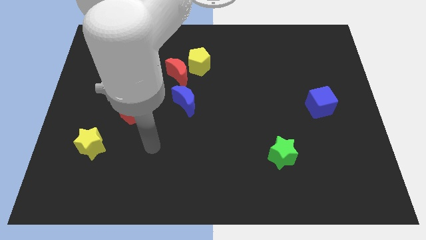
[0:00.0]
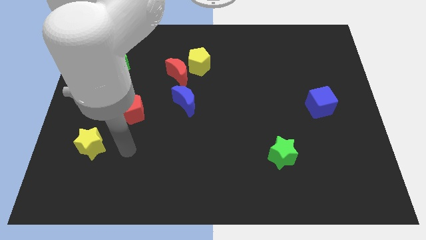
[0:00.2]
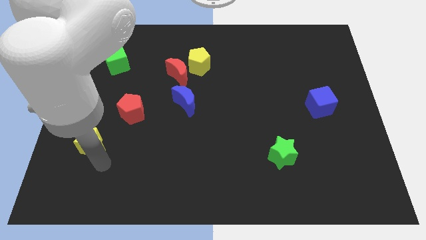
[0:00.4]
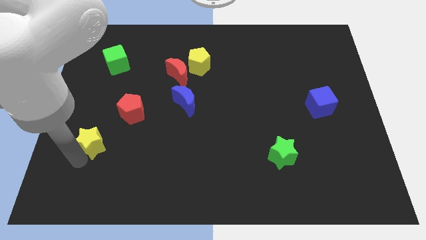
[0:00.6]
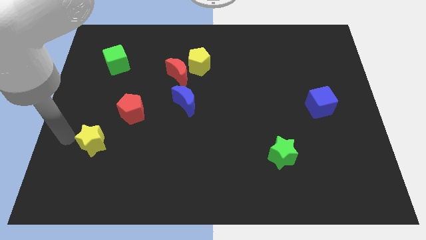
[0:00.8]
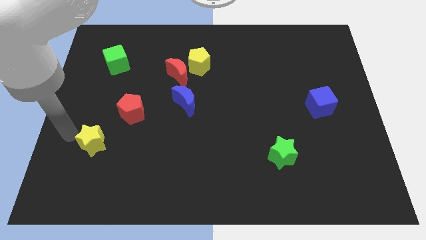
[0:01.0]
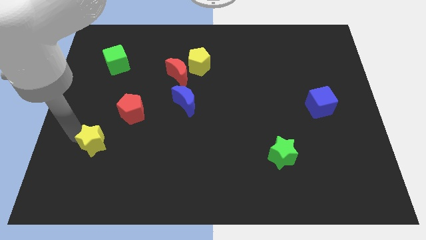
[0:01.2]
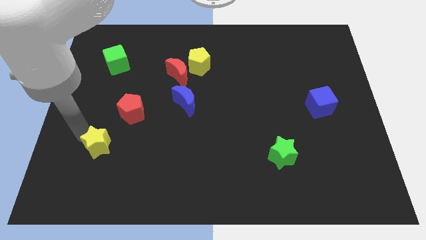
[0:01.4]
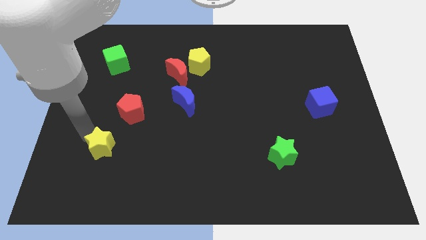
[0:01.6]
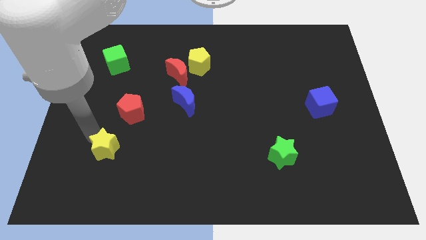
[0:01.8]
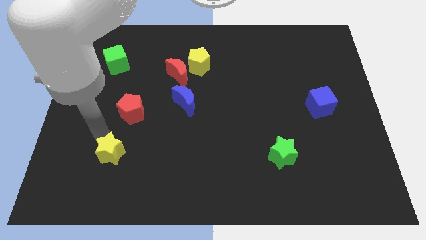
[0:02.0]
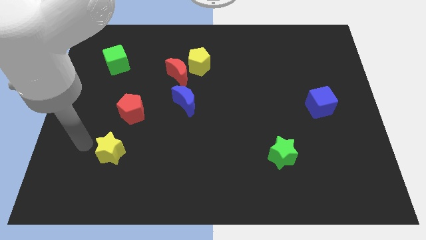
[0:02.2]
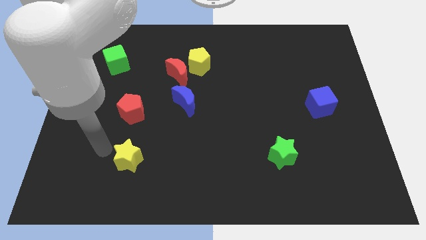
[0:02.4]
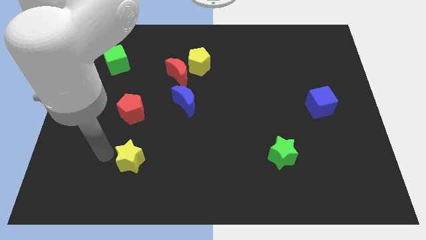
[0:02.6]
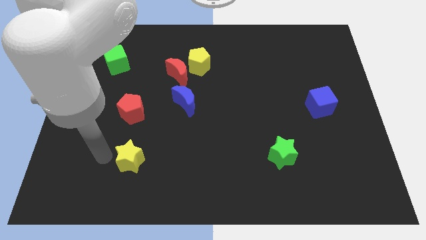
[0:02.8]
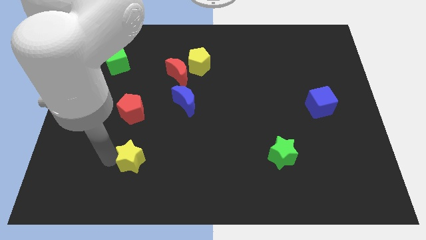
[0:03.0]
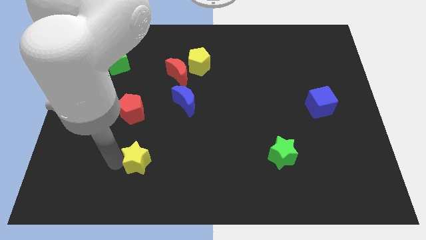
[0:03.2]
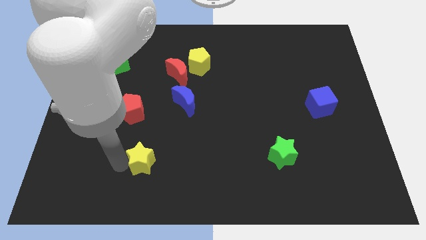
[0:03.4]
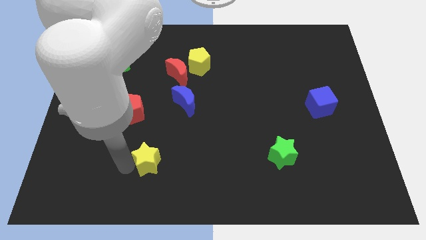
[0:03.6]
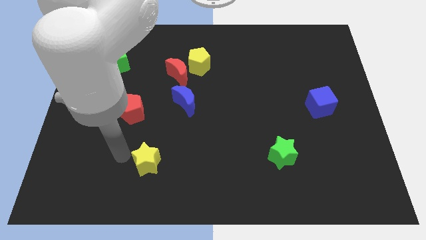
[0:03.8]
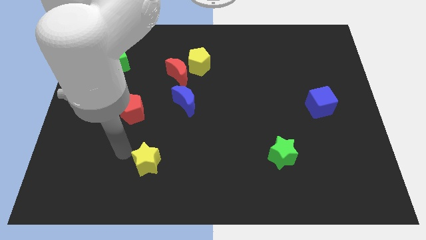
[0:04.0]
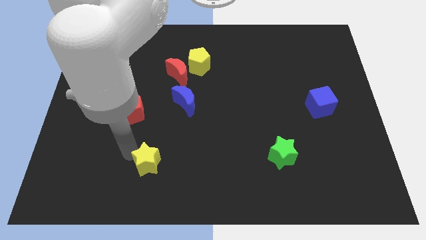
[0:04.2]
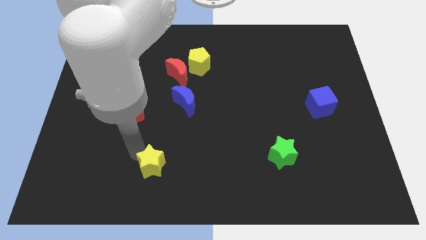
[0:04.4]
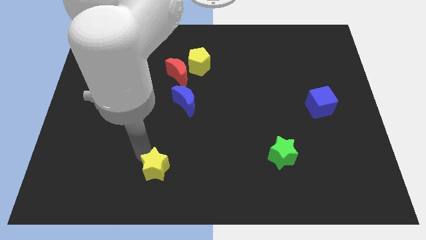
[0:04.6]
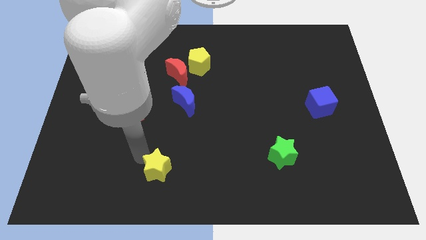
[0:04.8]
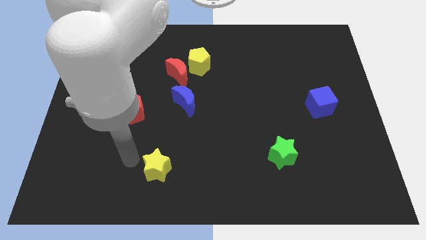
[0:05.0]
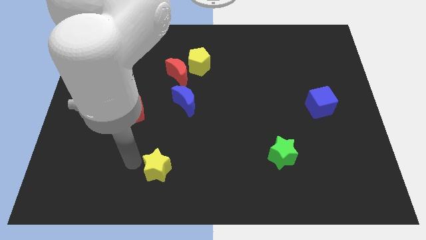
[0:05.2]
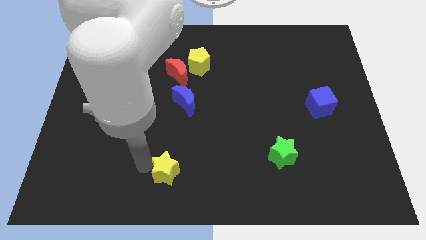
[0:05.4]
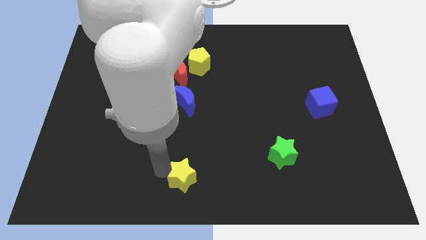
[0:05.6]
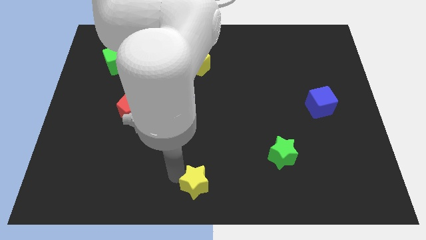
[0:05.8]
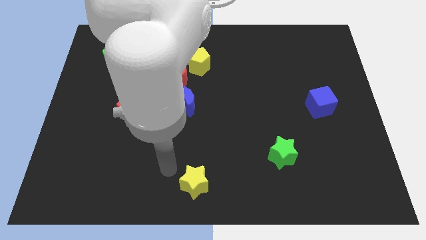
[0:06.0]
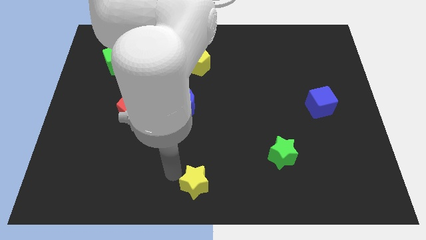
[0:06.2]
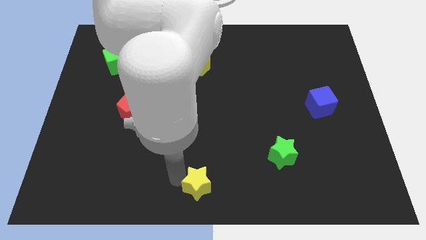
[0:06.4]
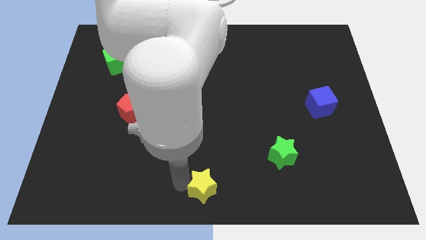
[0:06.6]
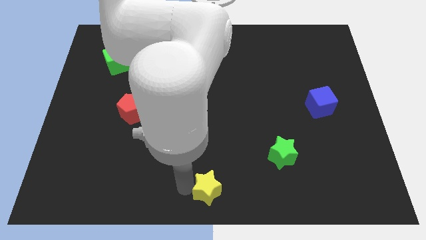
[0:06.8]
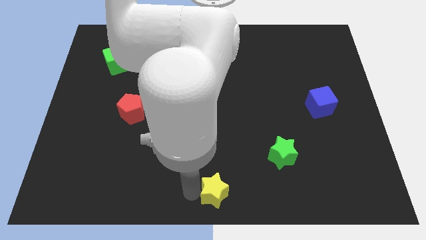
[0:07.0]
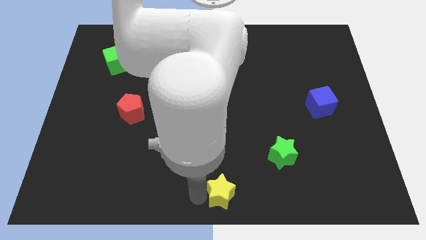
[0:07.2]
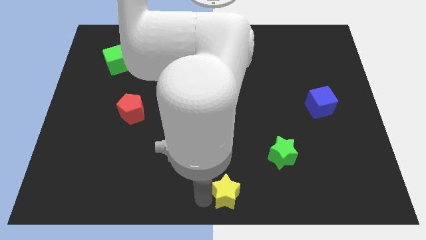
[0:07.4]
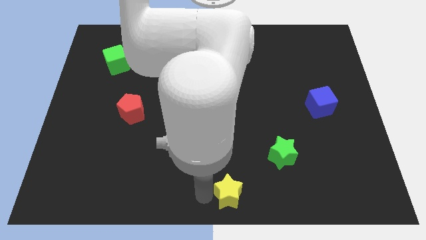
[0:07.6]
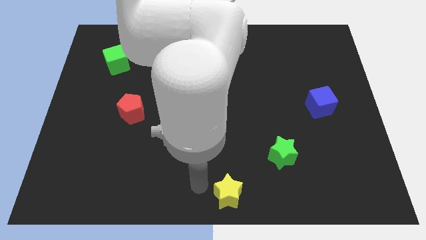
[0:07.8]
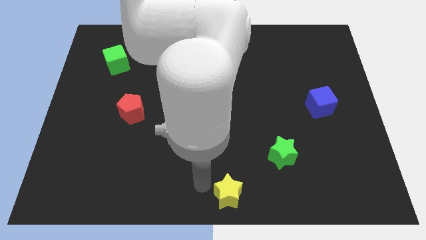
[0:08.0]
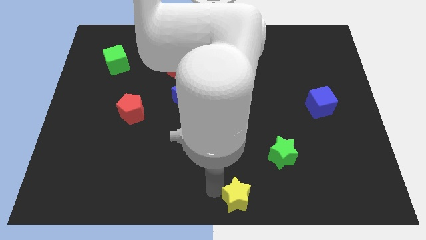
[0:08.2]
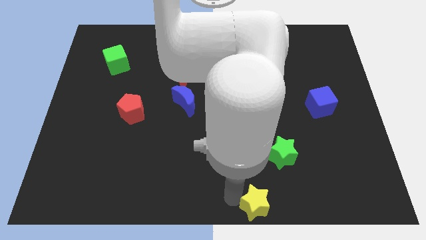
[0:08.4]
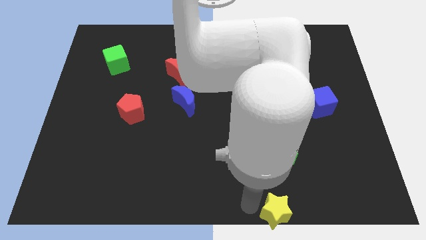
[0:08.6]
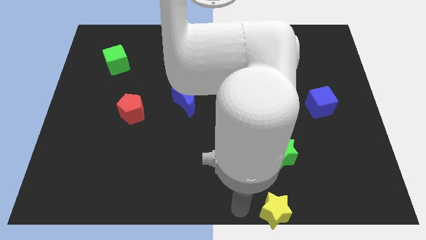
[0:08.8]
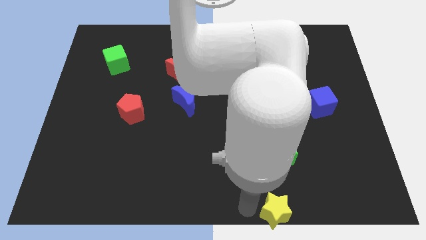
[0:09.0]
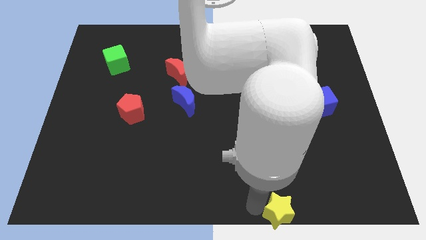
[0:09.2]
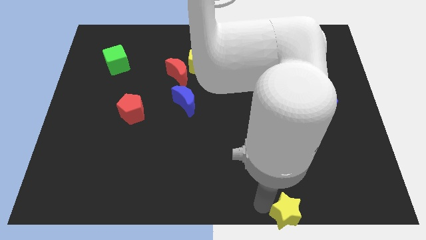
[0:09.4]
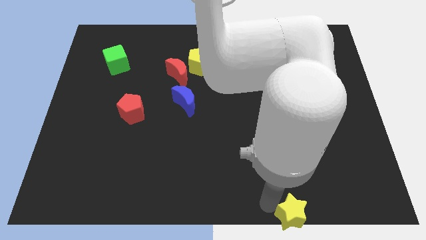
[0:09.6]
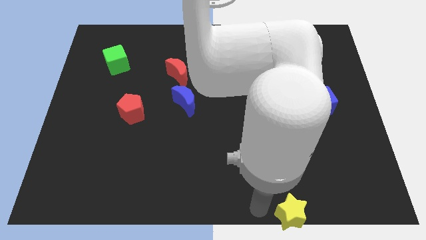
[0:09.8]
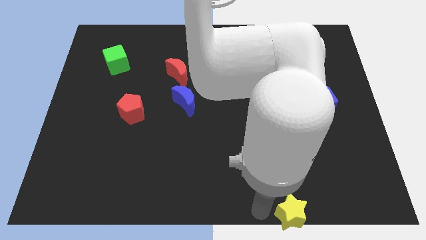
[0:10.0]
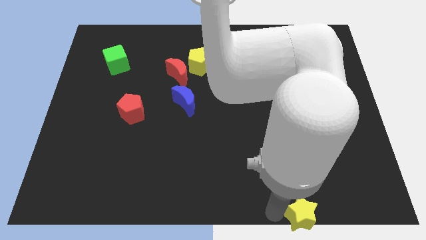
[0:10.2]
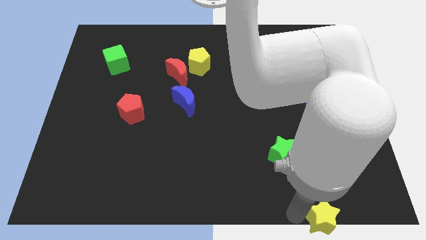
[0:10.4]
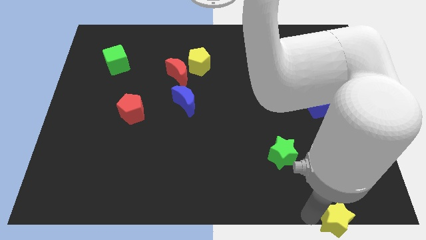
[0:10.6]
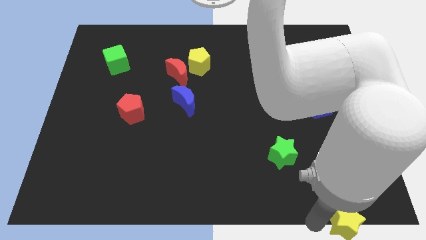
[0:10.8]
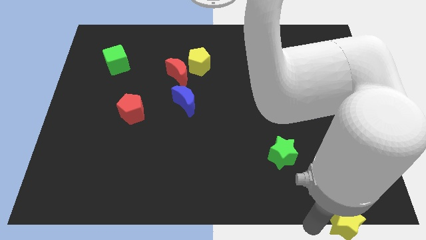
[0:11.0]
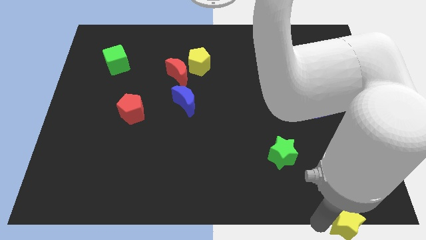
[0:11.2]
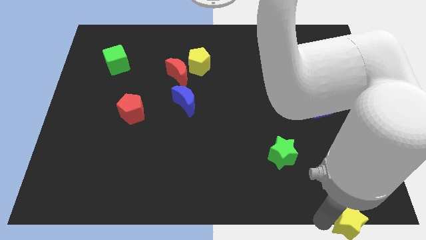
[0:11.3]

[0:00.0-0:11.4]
put the yellow star to the bottom right

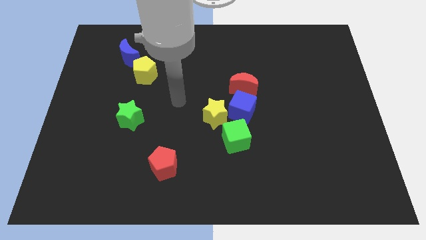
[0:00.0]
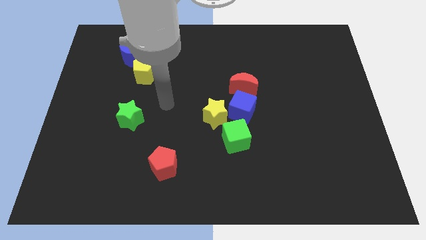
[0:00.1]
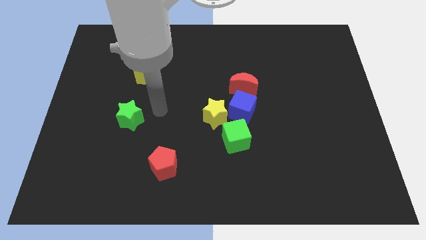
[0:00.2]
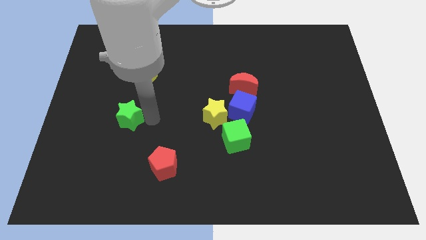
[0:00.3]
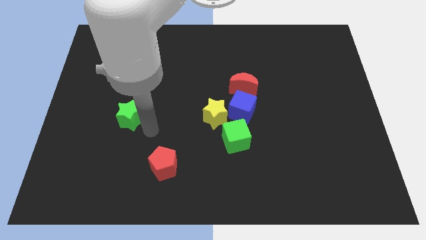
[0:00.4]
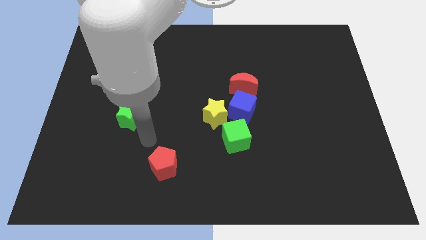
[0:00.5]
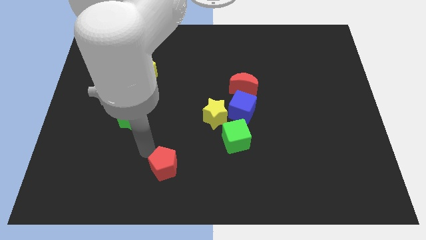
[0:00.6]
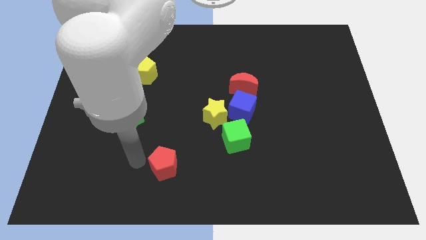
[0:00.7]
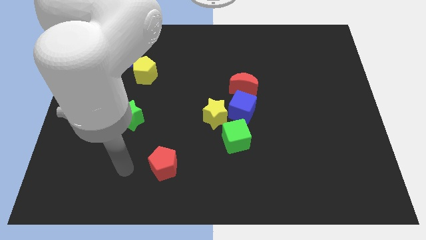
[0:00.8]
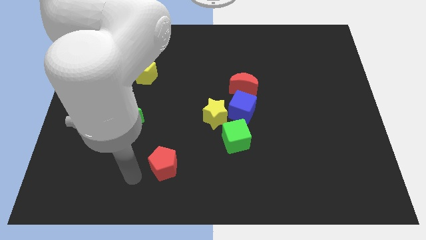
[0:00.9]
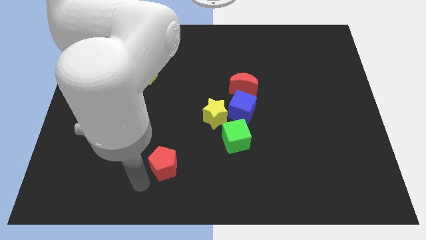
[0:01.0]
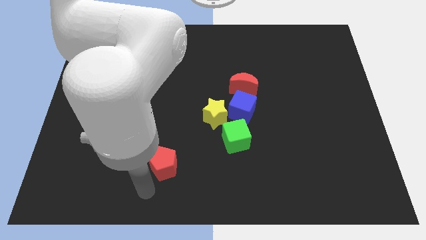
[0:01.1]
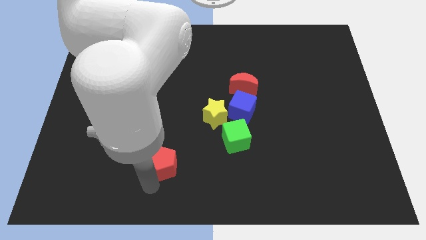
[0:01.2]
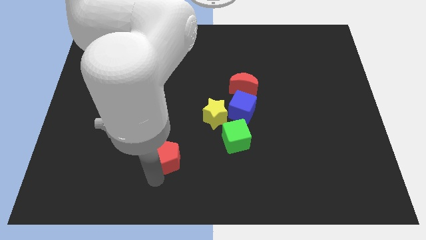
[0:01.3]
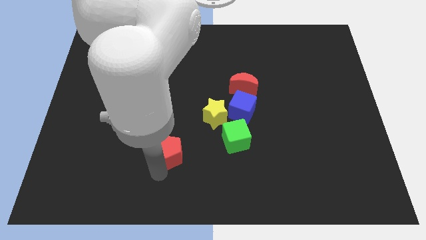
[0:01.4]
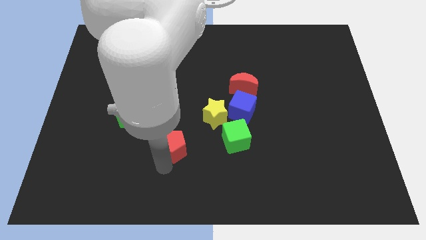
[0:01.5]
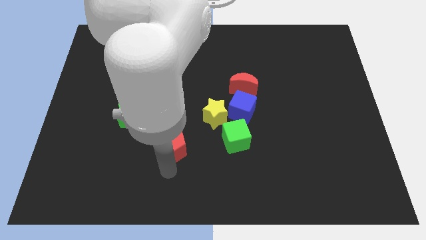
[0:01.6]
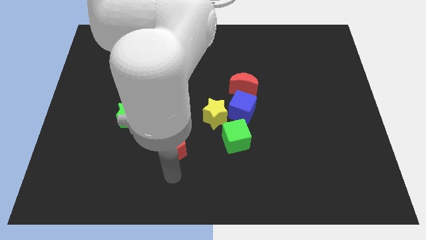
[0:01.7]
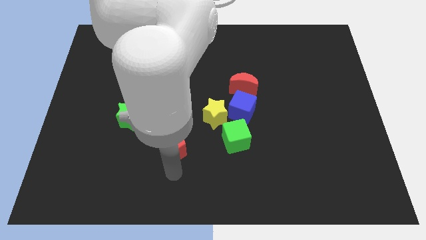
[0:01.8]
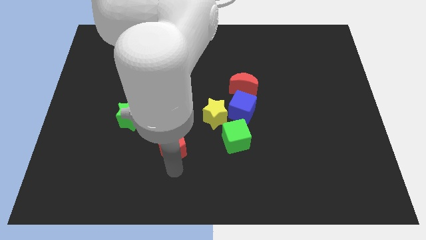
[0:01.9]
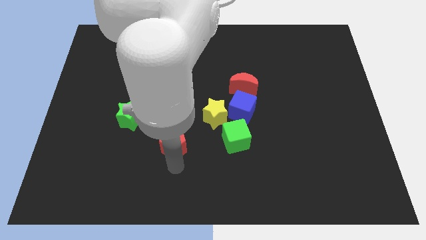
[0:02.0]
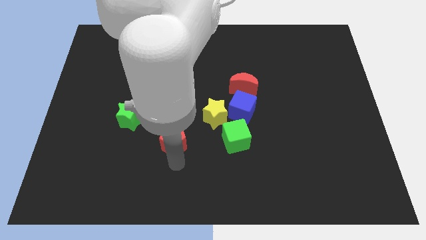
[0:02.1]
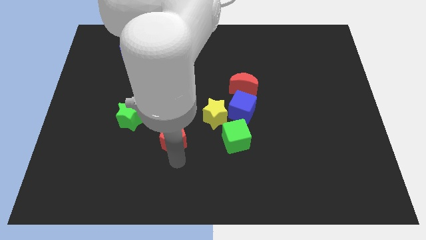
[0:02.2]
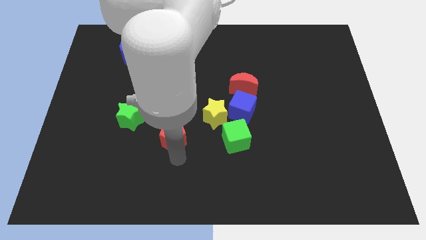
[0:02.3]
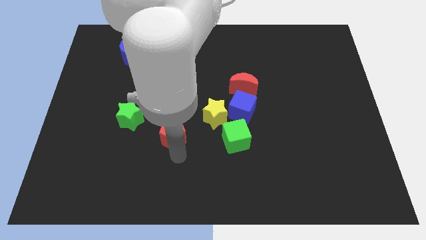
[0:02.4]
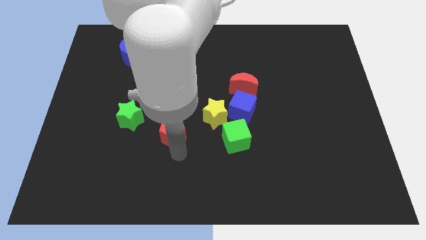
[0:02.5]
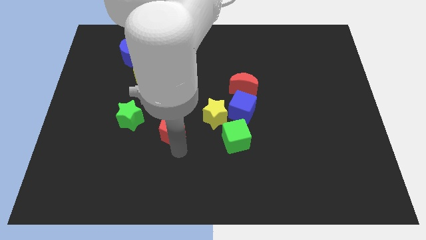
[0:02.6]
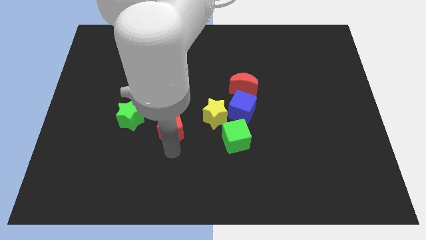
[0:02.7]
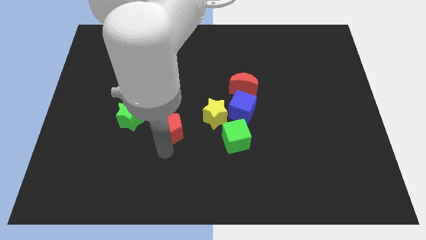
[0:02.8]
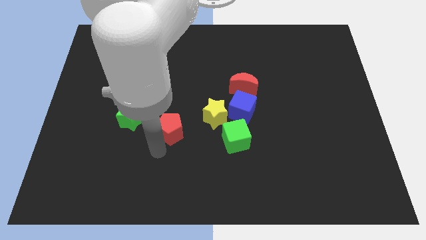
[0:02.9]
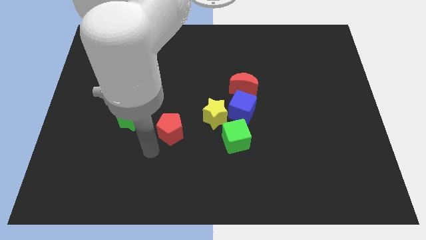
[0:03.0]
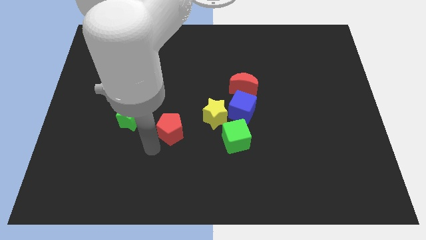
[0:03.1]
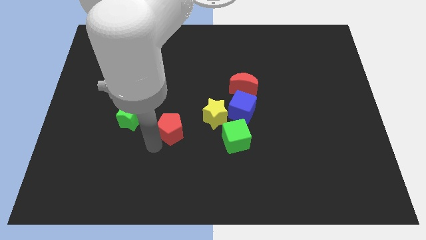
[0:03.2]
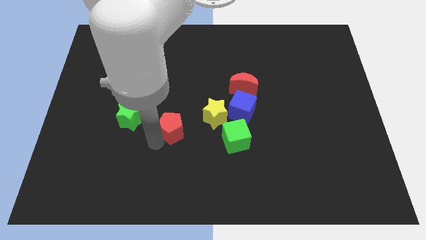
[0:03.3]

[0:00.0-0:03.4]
slide the red pentagon to the middle
